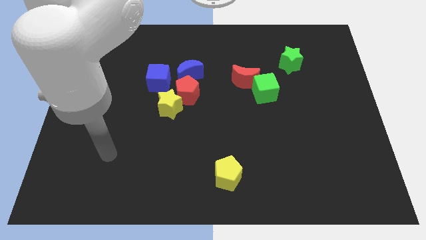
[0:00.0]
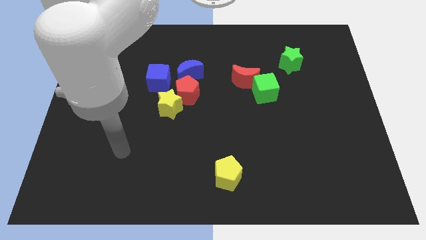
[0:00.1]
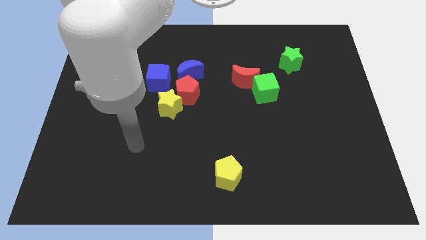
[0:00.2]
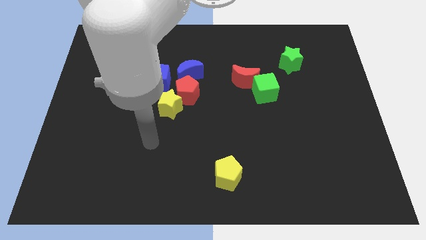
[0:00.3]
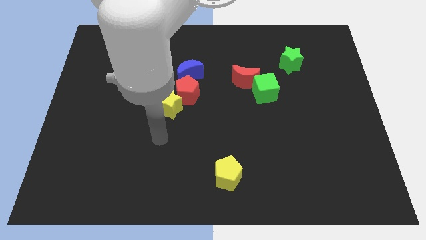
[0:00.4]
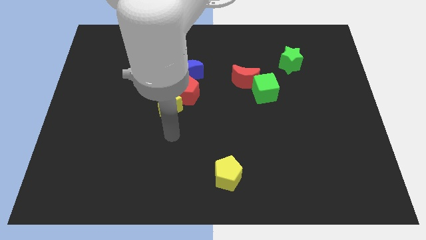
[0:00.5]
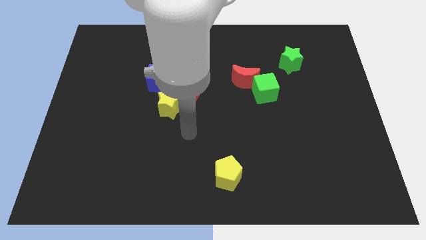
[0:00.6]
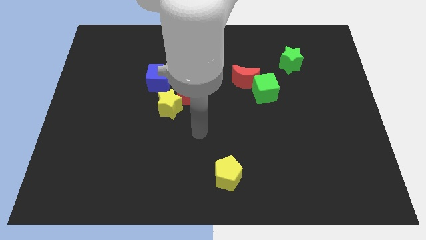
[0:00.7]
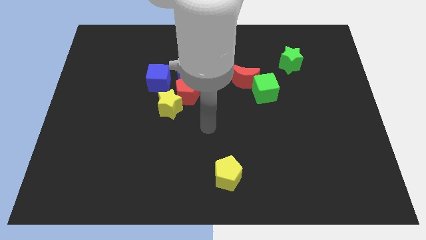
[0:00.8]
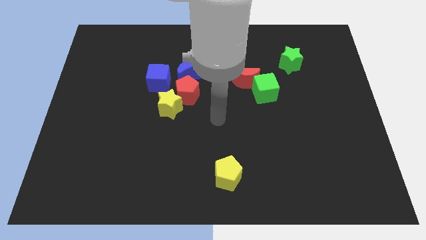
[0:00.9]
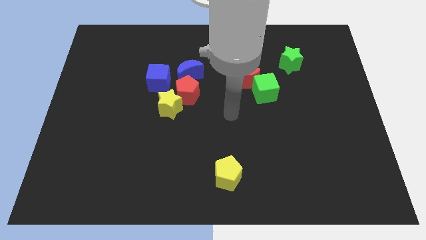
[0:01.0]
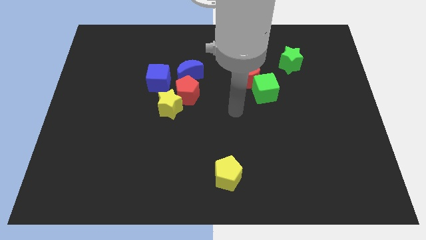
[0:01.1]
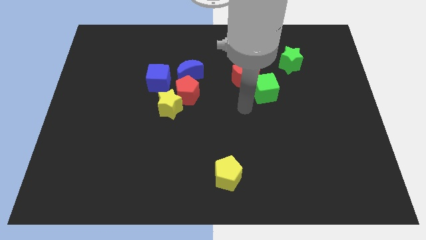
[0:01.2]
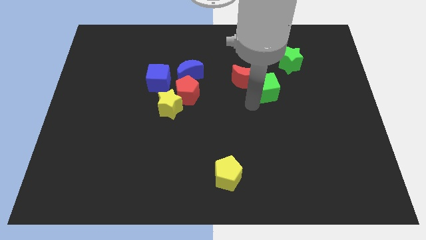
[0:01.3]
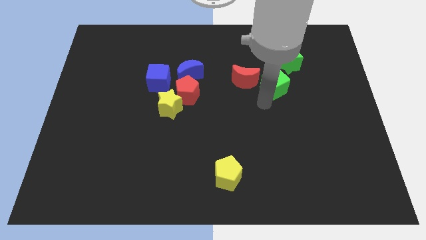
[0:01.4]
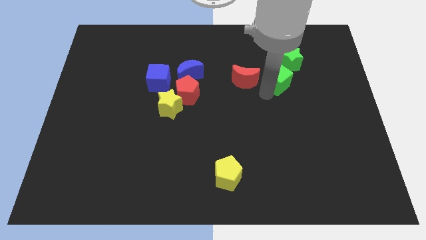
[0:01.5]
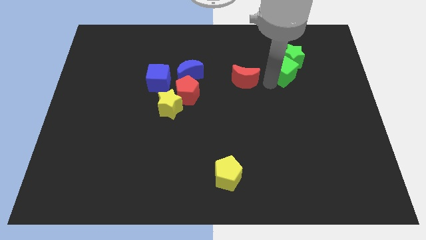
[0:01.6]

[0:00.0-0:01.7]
pull the red moon apart from the green cube

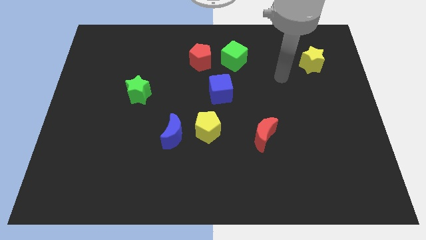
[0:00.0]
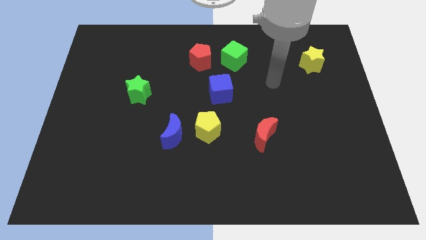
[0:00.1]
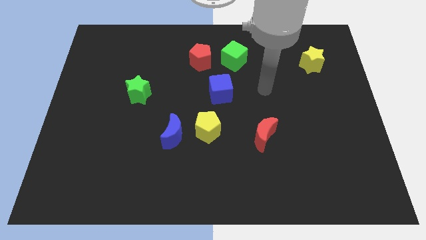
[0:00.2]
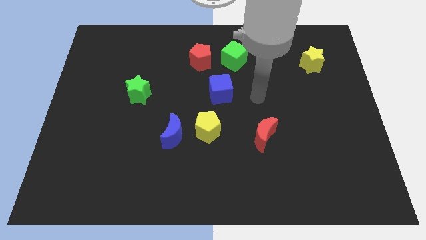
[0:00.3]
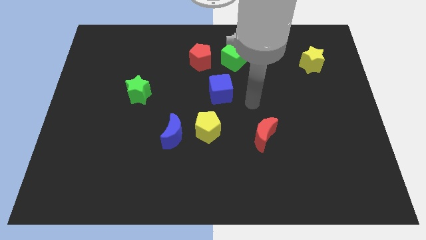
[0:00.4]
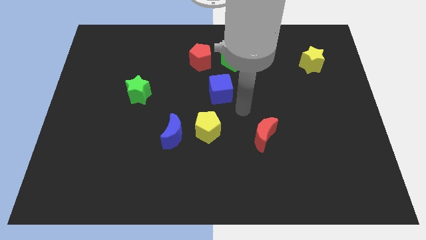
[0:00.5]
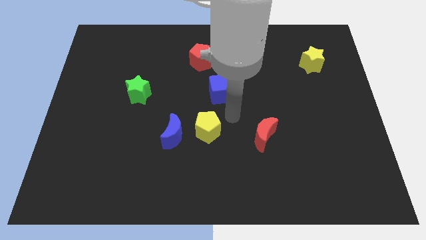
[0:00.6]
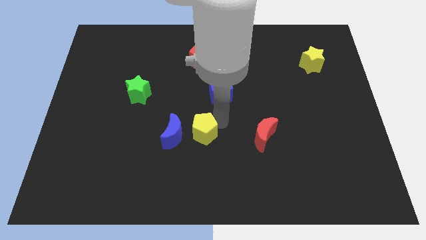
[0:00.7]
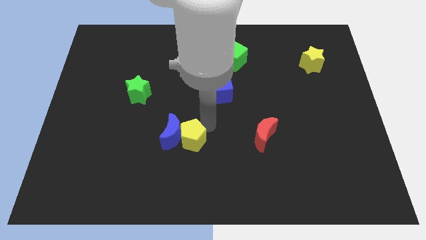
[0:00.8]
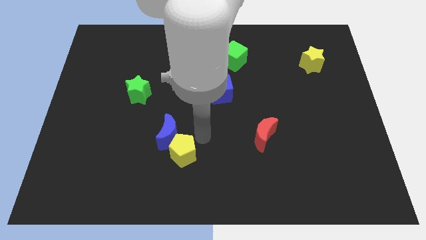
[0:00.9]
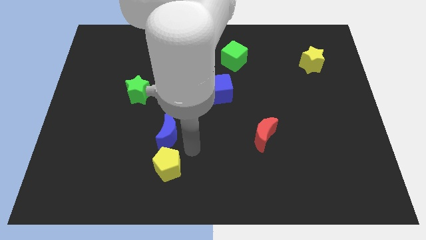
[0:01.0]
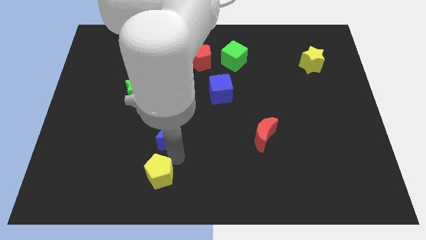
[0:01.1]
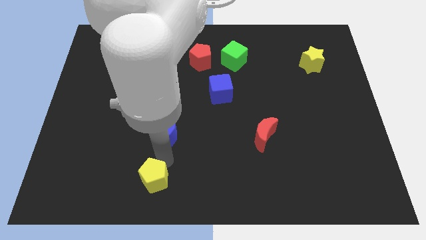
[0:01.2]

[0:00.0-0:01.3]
move the blue moon away from the yellow pentagon

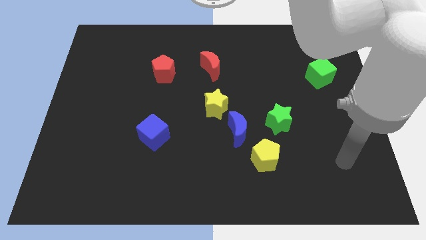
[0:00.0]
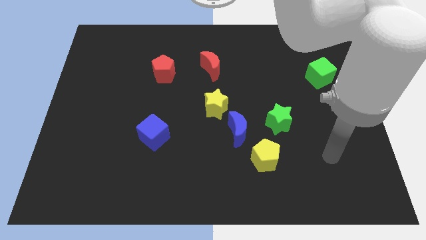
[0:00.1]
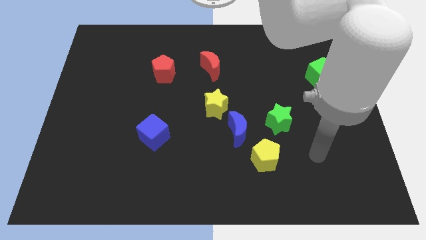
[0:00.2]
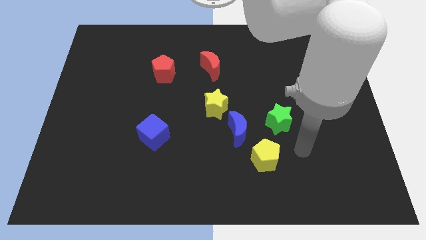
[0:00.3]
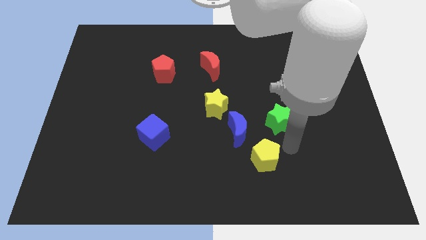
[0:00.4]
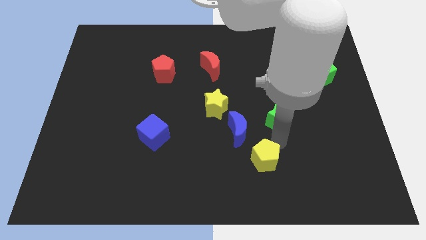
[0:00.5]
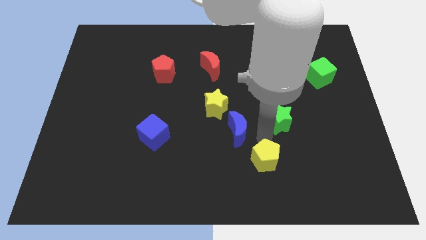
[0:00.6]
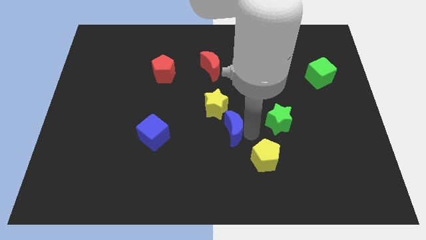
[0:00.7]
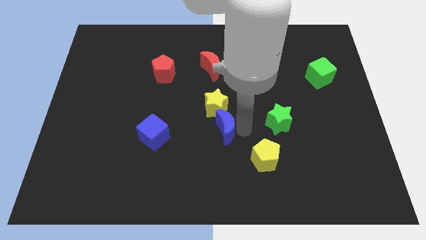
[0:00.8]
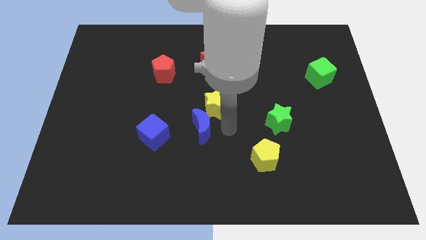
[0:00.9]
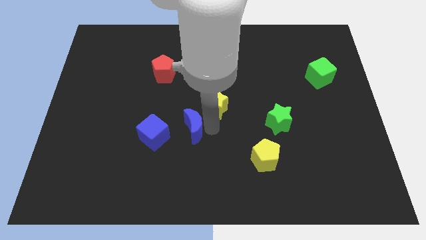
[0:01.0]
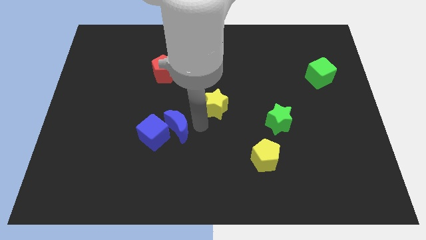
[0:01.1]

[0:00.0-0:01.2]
pull the yellow star apart from the blue moon

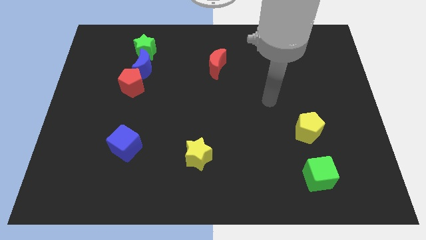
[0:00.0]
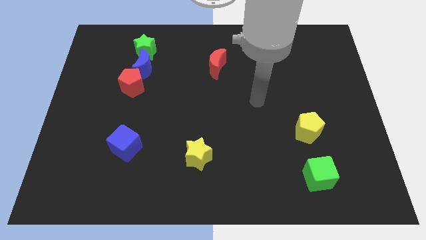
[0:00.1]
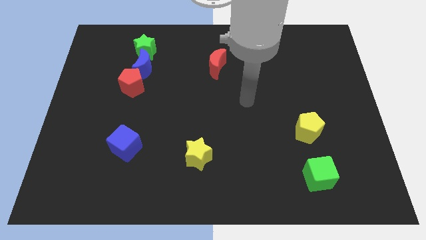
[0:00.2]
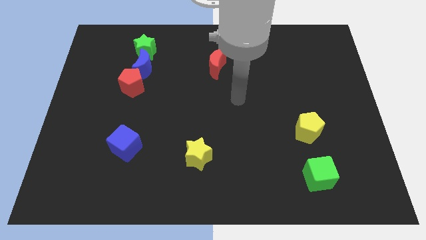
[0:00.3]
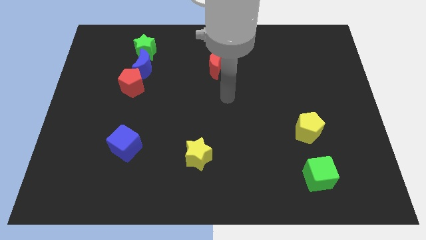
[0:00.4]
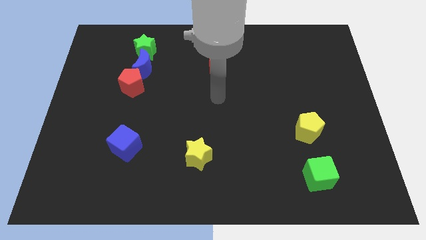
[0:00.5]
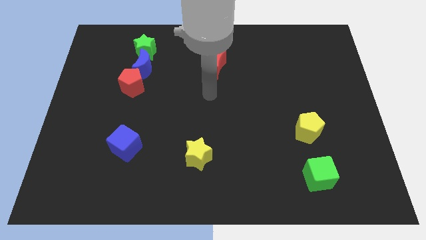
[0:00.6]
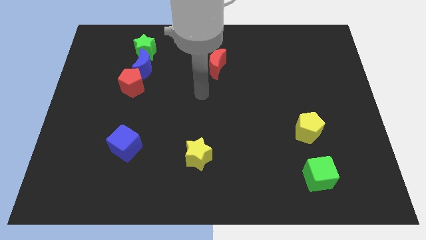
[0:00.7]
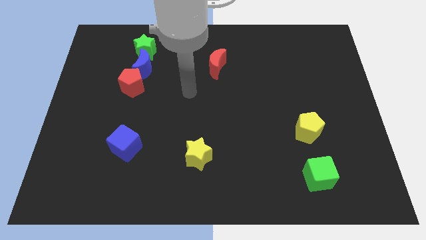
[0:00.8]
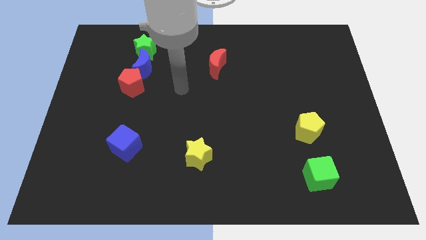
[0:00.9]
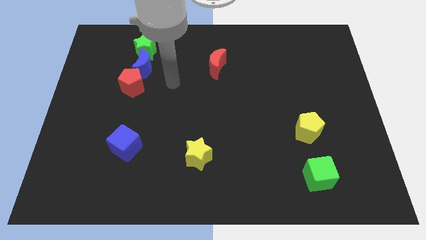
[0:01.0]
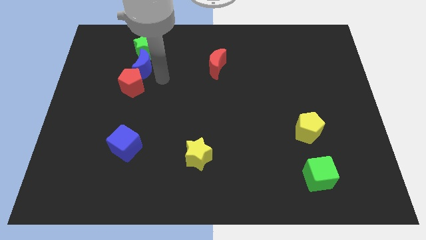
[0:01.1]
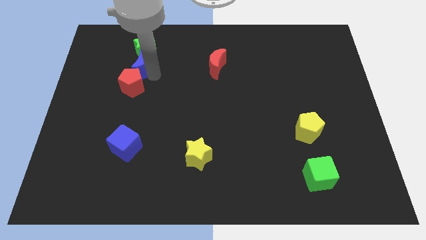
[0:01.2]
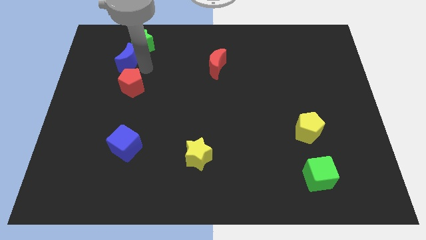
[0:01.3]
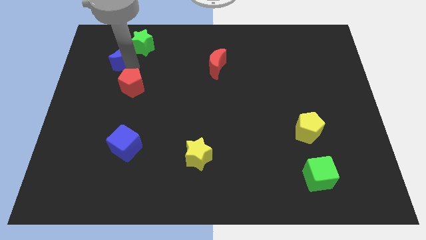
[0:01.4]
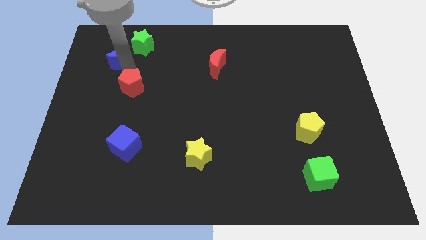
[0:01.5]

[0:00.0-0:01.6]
pull the red pentagon apart from the blue moon

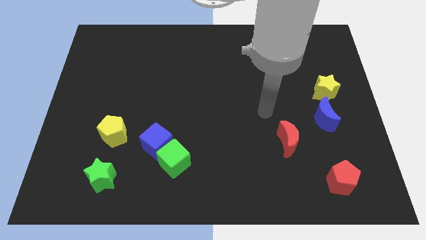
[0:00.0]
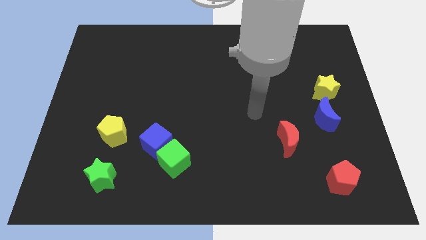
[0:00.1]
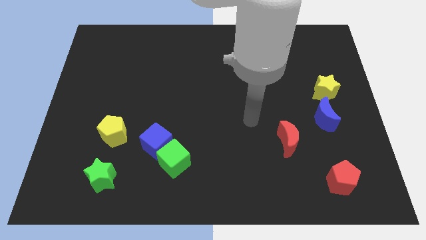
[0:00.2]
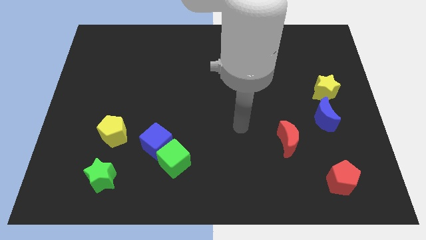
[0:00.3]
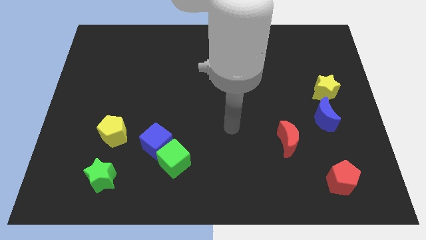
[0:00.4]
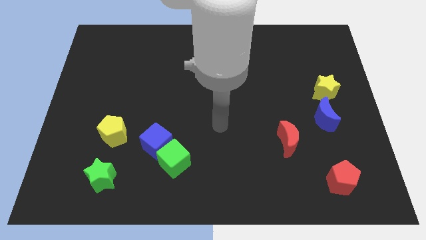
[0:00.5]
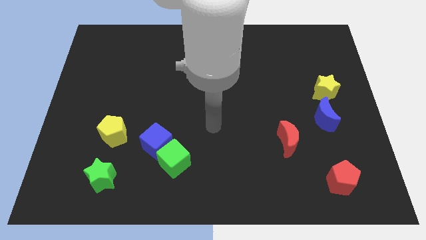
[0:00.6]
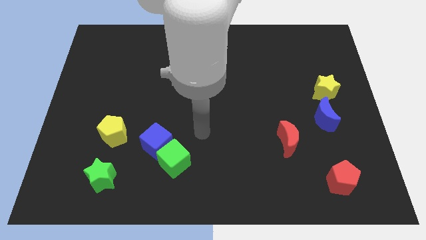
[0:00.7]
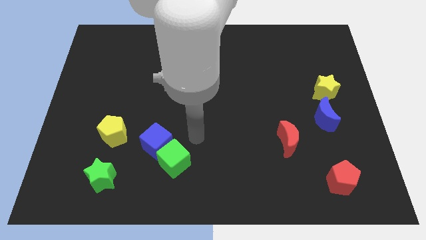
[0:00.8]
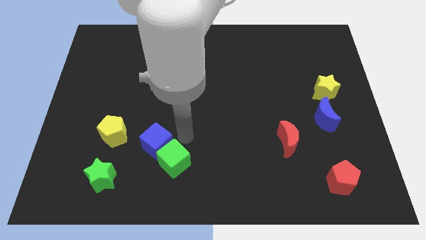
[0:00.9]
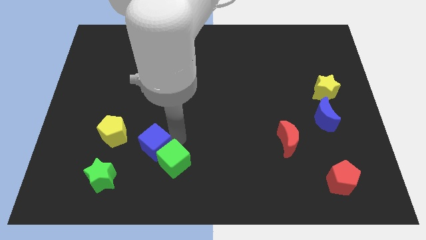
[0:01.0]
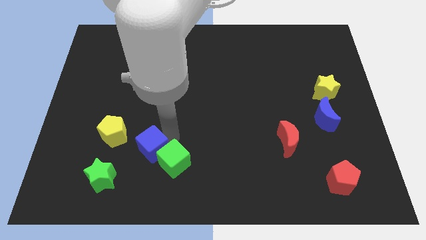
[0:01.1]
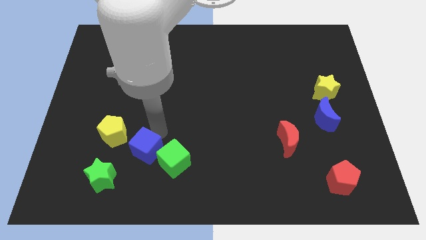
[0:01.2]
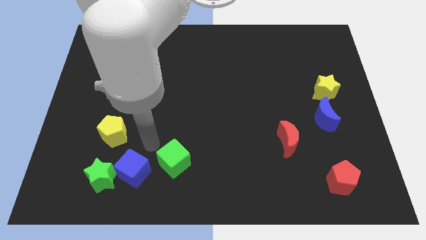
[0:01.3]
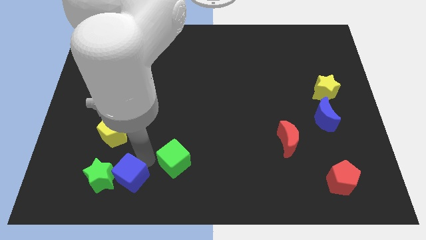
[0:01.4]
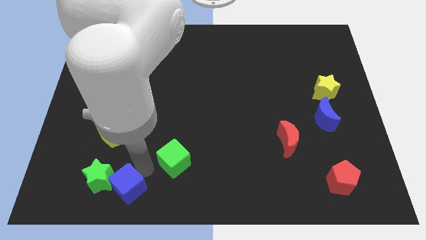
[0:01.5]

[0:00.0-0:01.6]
move the green cube away from the blue cube

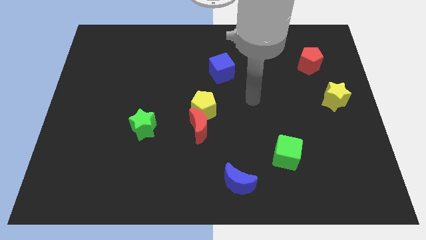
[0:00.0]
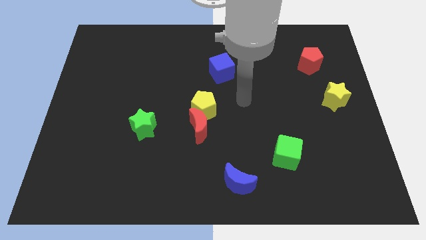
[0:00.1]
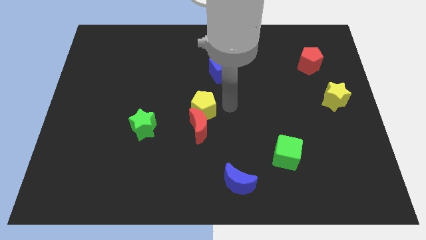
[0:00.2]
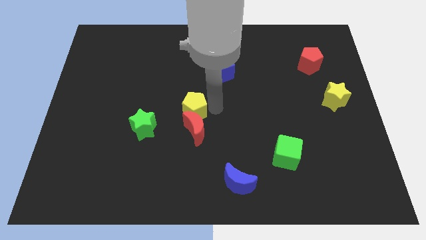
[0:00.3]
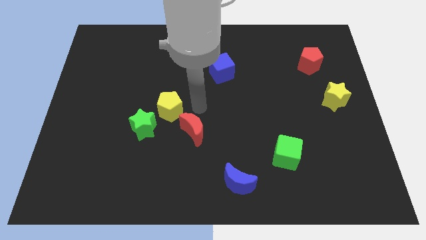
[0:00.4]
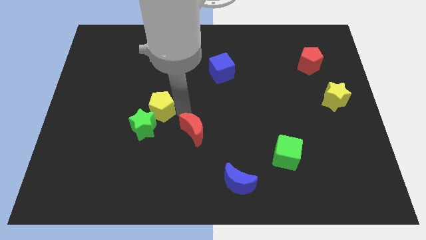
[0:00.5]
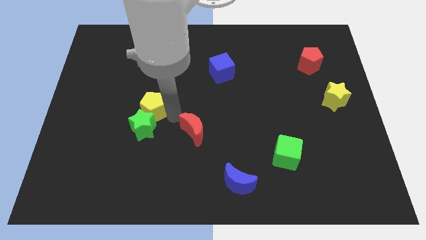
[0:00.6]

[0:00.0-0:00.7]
pull the red moon apart from the yellow pentagon

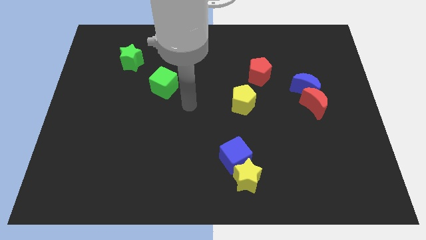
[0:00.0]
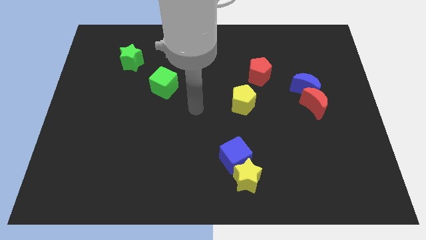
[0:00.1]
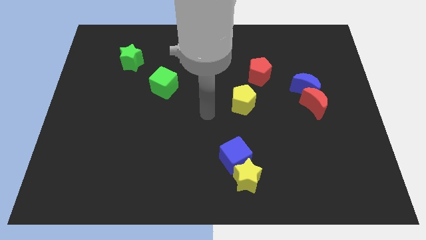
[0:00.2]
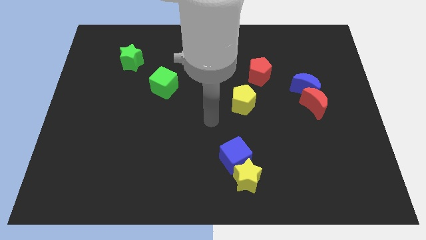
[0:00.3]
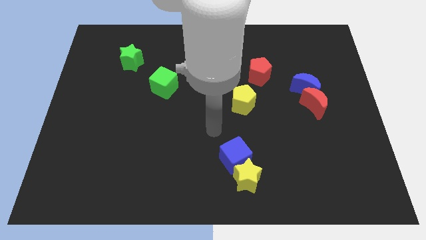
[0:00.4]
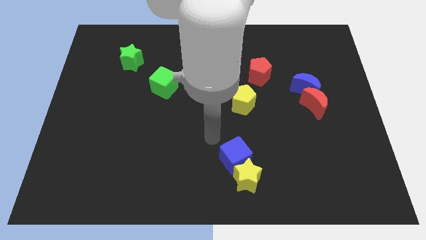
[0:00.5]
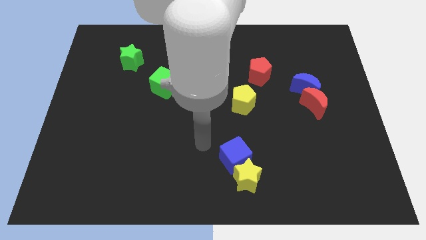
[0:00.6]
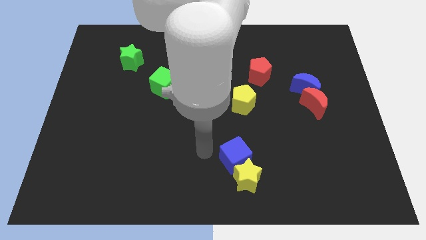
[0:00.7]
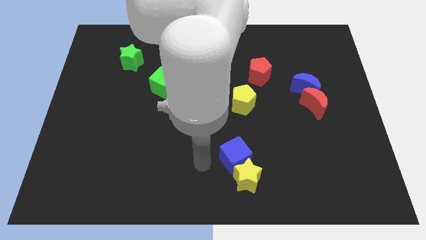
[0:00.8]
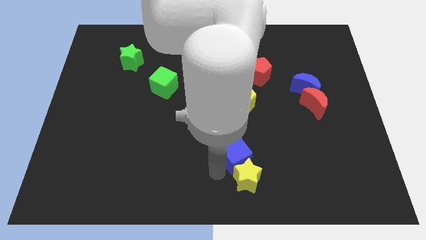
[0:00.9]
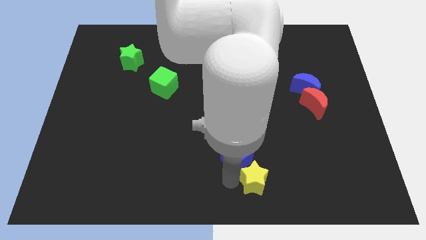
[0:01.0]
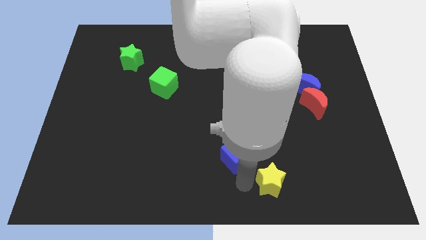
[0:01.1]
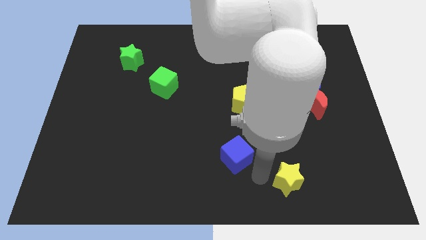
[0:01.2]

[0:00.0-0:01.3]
move the blue cube away from the yellow star
